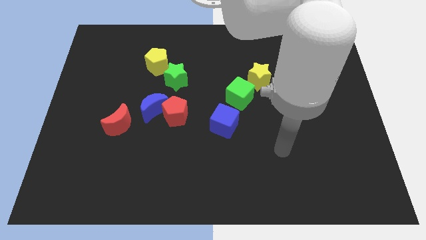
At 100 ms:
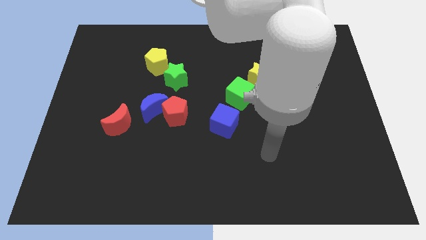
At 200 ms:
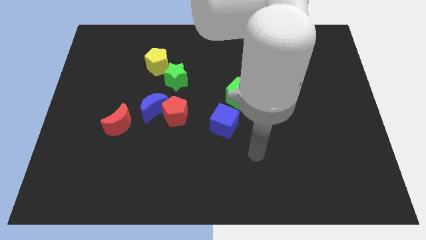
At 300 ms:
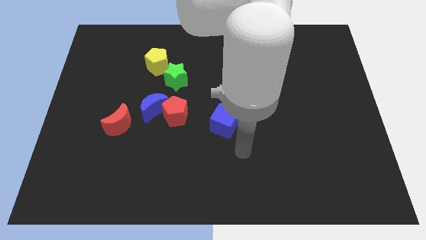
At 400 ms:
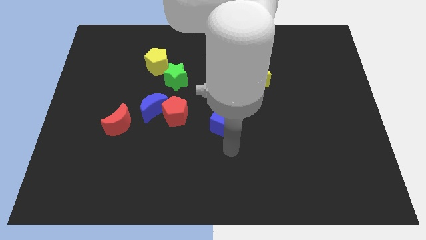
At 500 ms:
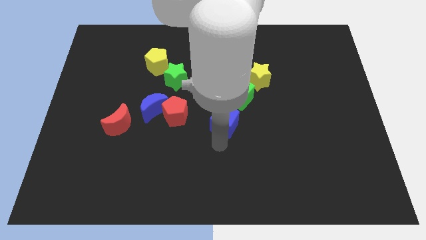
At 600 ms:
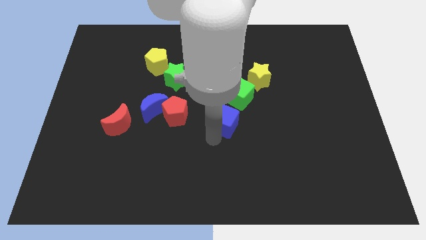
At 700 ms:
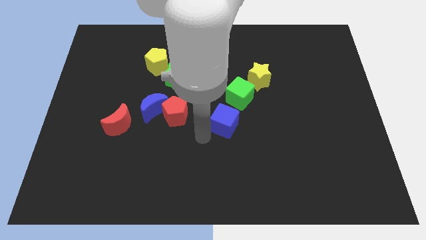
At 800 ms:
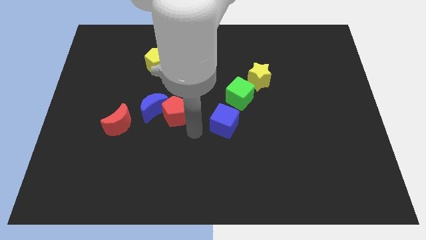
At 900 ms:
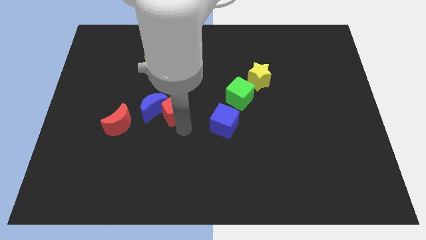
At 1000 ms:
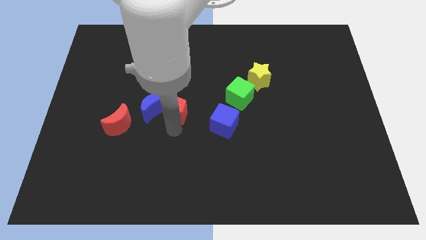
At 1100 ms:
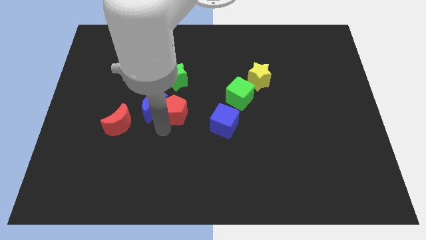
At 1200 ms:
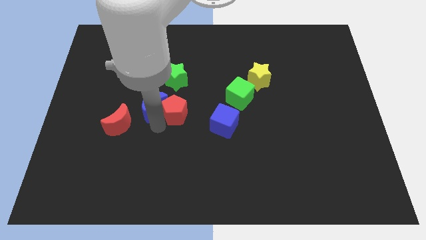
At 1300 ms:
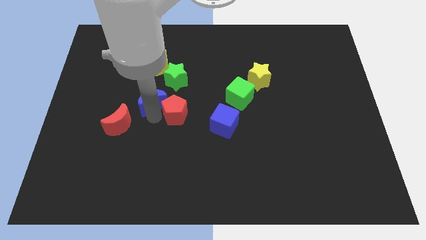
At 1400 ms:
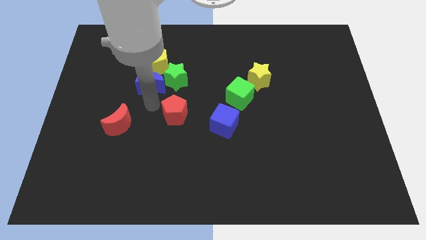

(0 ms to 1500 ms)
pull the red pentagon apart from the blue moon

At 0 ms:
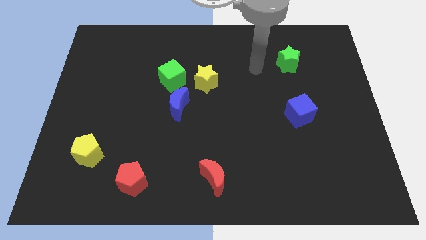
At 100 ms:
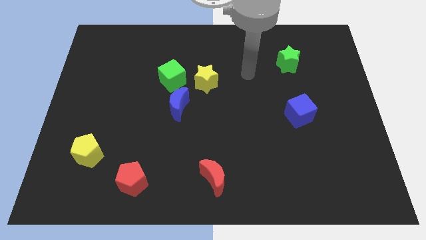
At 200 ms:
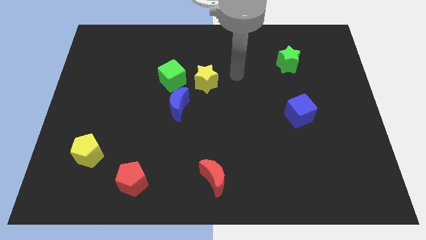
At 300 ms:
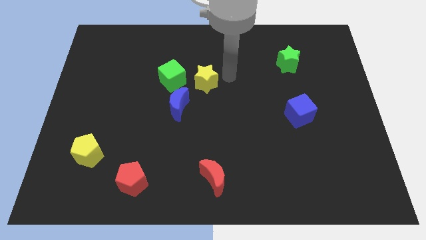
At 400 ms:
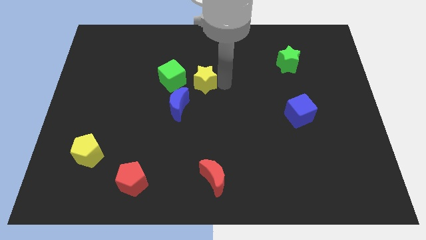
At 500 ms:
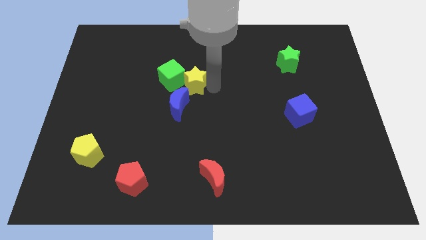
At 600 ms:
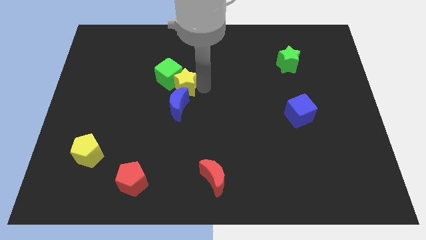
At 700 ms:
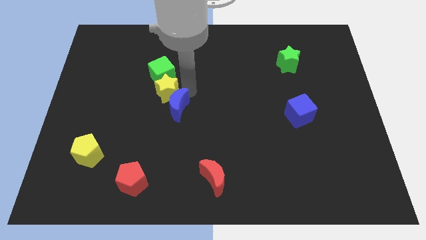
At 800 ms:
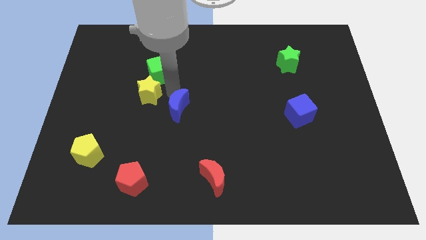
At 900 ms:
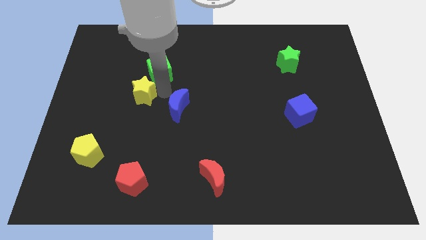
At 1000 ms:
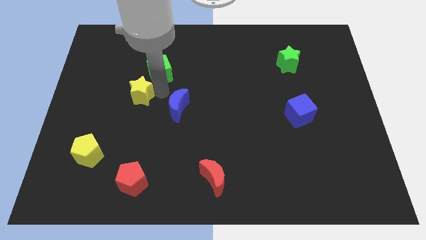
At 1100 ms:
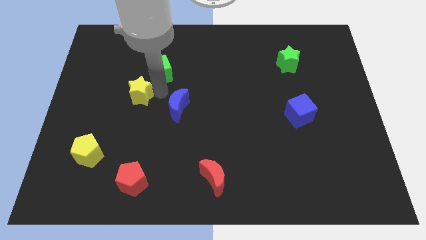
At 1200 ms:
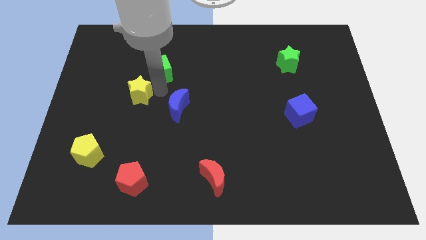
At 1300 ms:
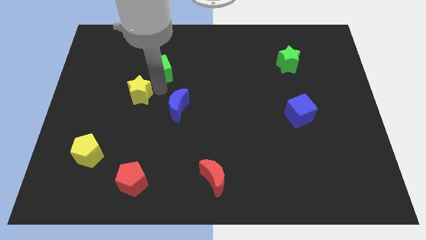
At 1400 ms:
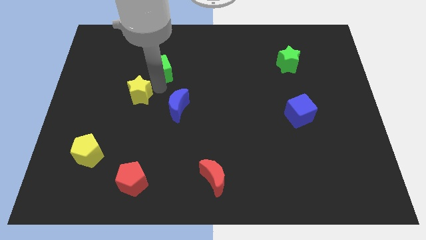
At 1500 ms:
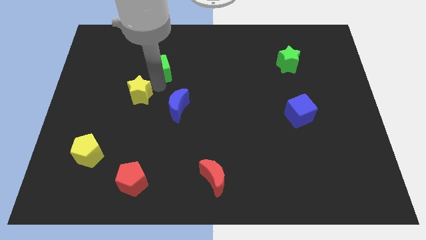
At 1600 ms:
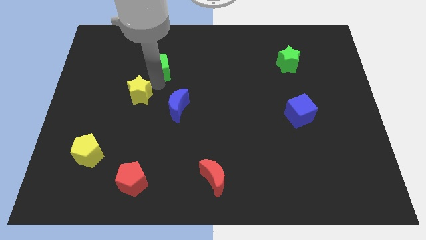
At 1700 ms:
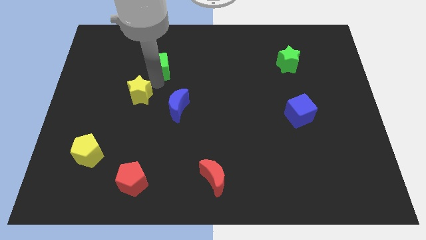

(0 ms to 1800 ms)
pull the green cube apart from the yellow star and blue moon

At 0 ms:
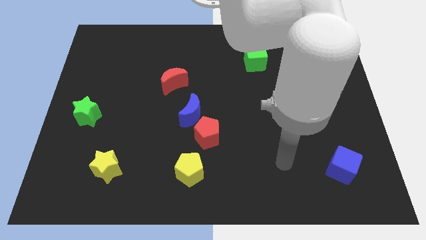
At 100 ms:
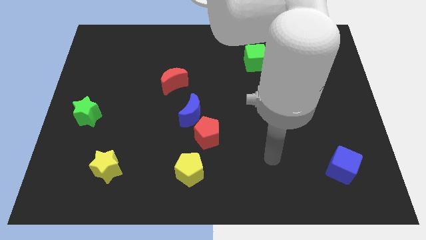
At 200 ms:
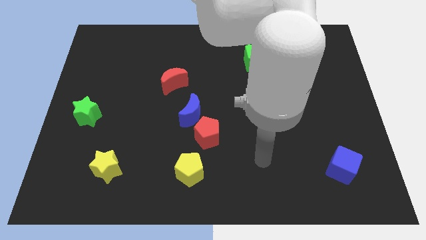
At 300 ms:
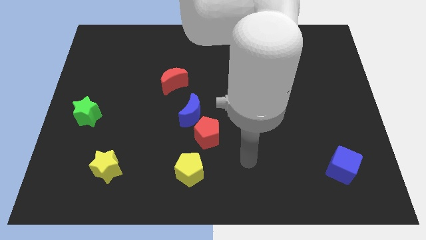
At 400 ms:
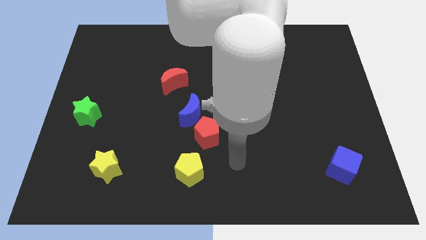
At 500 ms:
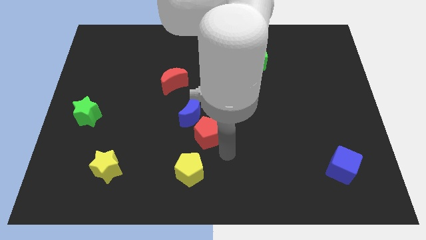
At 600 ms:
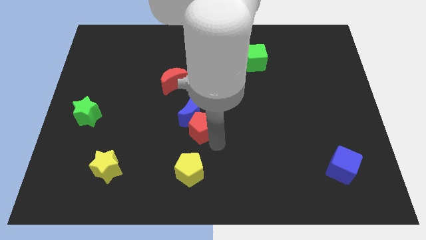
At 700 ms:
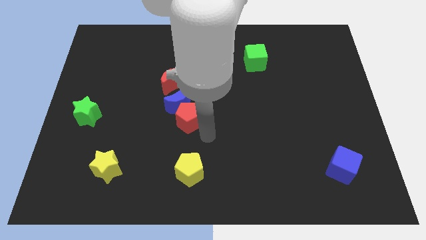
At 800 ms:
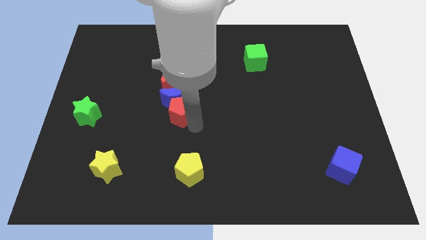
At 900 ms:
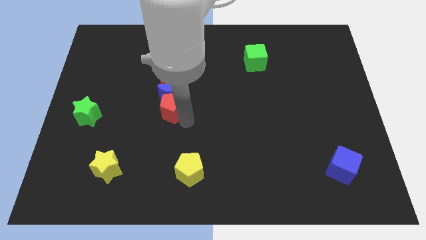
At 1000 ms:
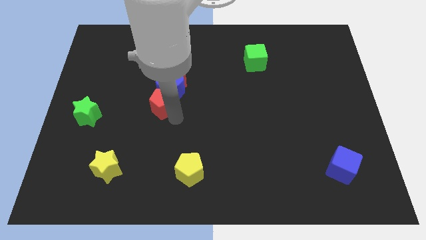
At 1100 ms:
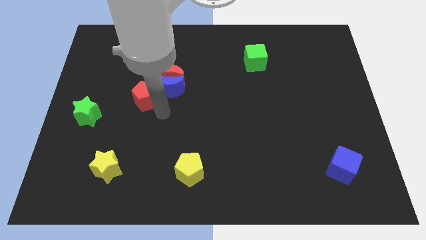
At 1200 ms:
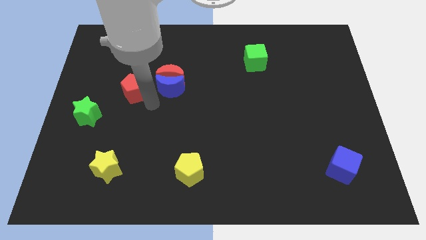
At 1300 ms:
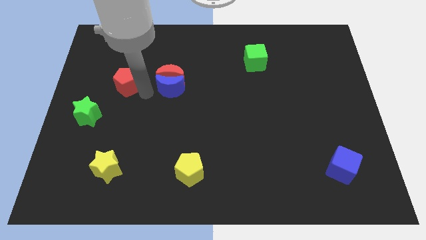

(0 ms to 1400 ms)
separate the blue moon from the red pentagon

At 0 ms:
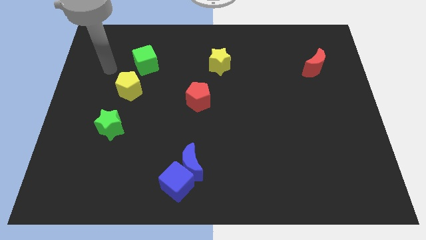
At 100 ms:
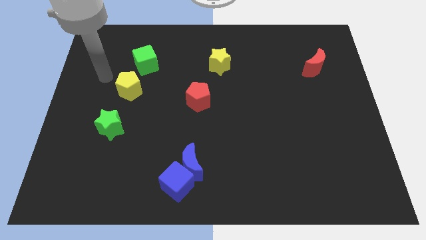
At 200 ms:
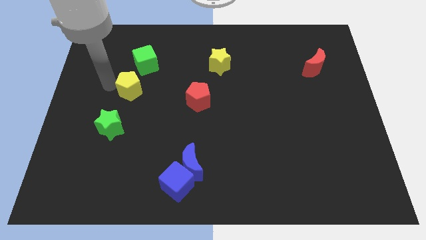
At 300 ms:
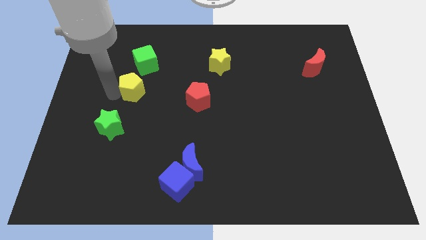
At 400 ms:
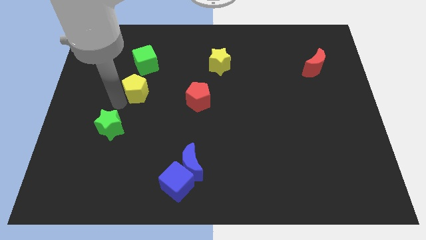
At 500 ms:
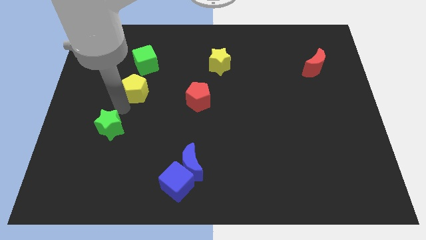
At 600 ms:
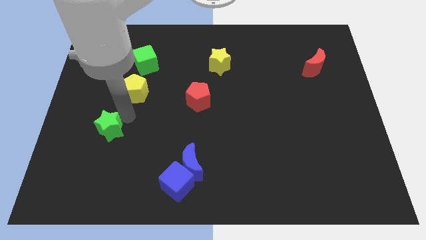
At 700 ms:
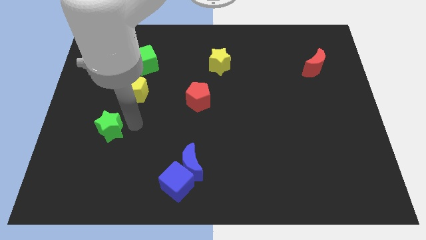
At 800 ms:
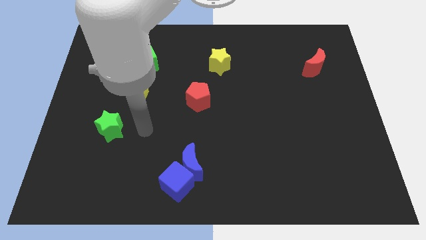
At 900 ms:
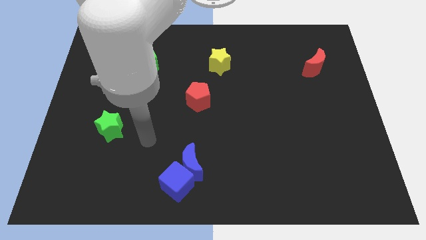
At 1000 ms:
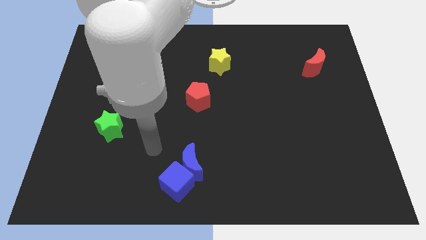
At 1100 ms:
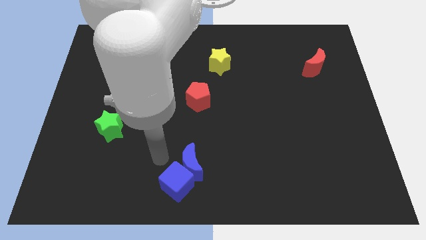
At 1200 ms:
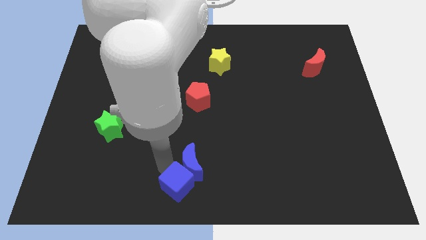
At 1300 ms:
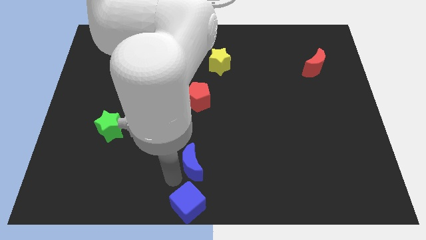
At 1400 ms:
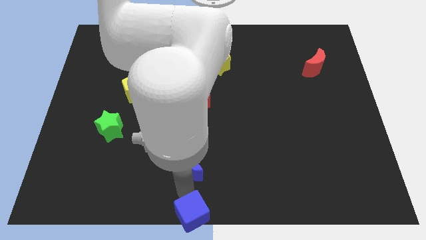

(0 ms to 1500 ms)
pull the blue moon apart from the blue cube

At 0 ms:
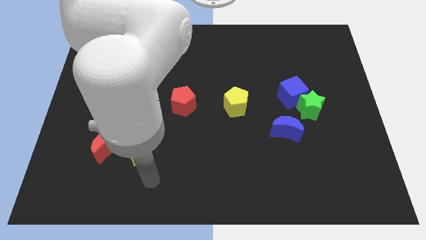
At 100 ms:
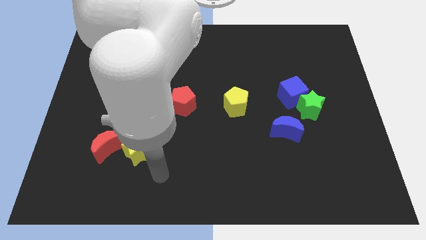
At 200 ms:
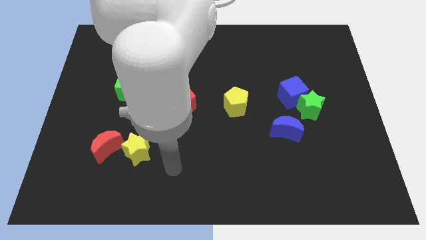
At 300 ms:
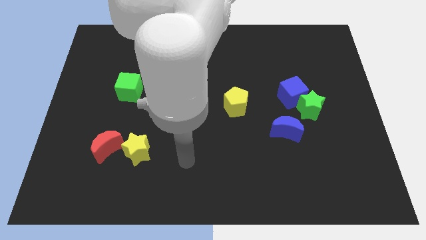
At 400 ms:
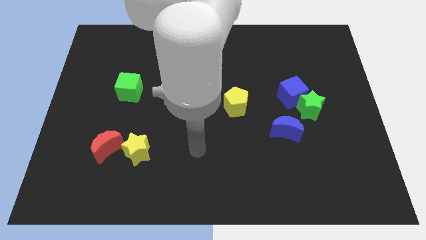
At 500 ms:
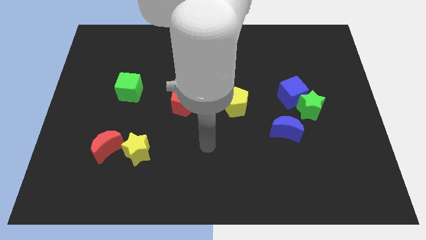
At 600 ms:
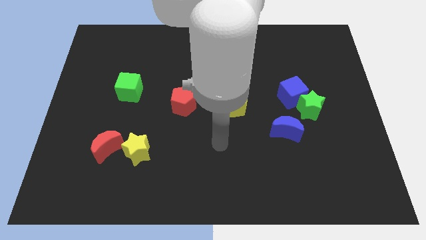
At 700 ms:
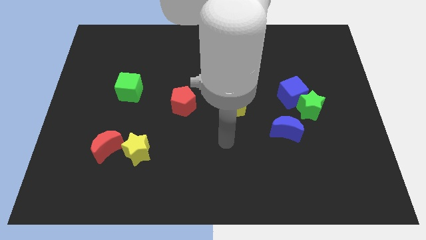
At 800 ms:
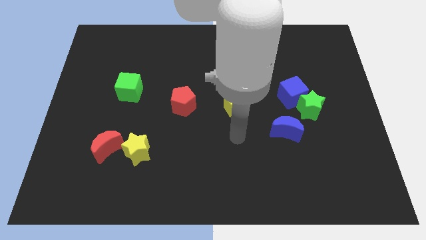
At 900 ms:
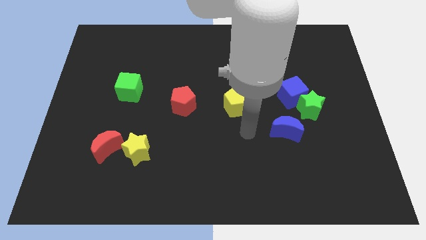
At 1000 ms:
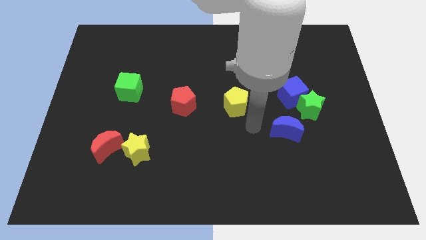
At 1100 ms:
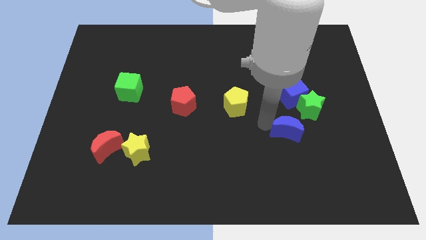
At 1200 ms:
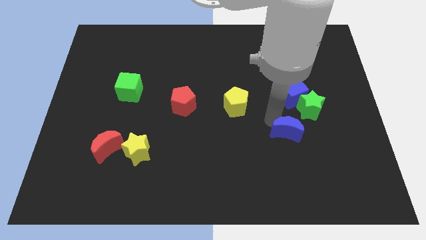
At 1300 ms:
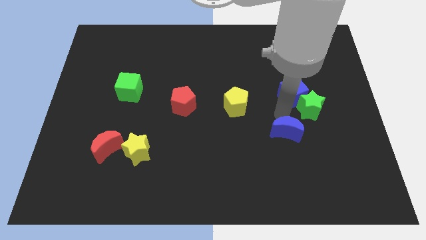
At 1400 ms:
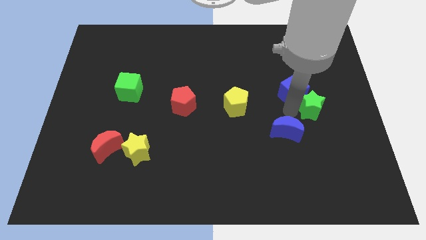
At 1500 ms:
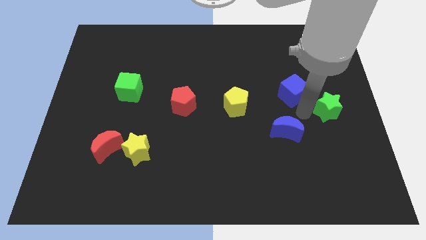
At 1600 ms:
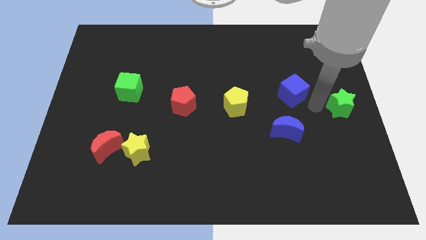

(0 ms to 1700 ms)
move the blue cube away from the green star

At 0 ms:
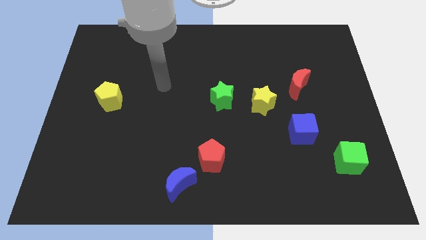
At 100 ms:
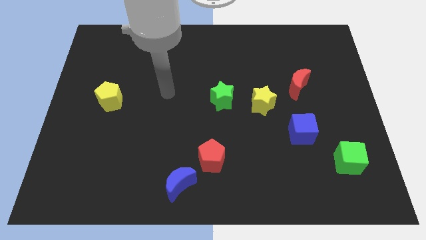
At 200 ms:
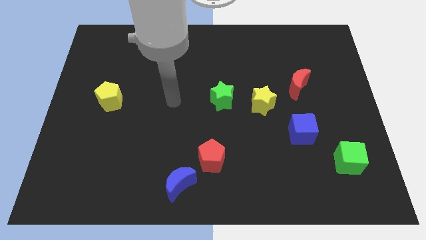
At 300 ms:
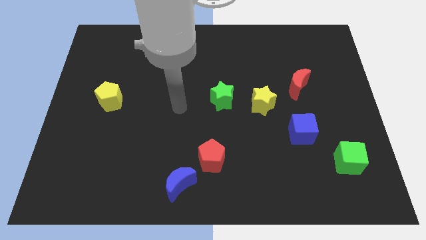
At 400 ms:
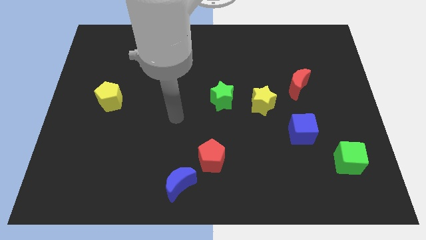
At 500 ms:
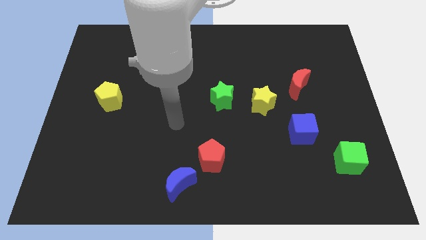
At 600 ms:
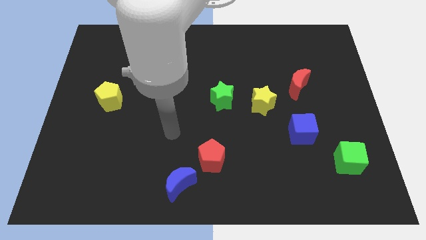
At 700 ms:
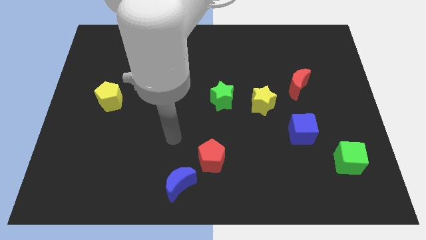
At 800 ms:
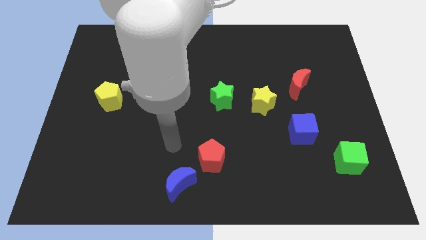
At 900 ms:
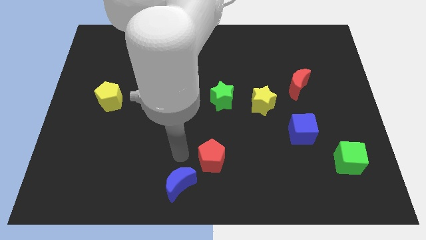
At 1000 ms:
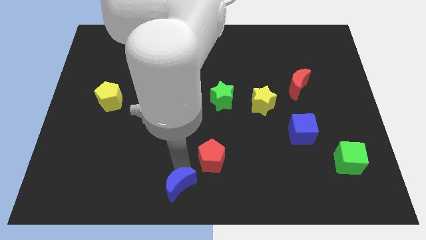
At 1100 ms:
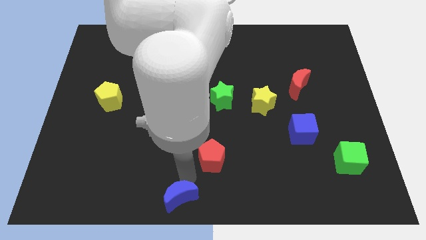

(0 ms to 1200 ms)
move the red pentagon away from the blue moon

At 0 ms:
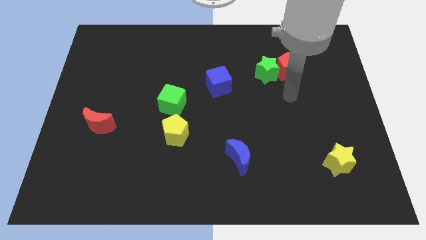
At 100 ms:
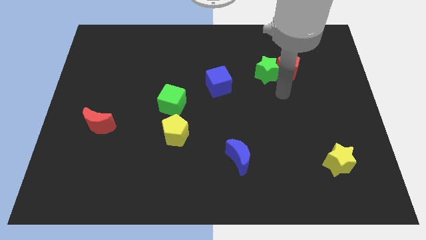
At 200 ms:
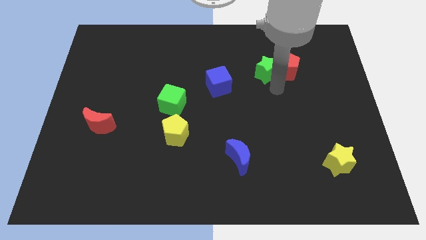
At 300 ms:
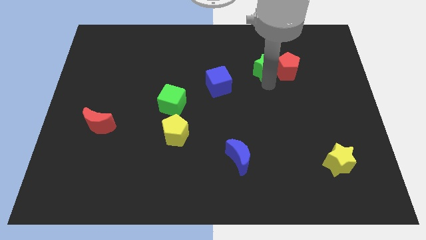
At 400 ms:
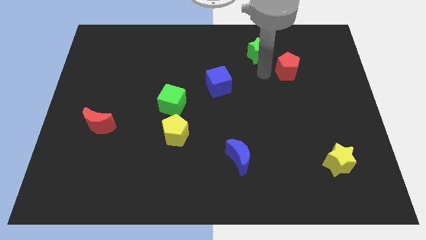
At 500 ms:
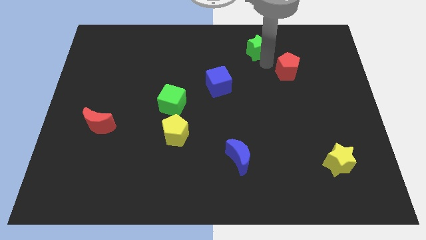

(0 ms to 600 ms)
pull the red pentagon apart from the green star
